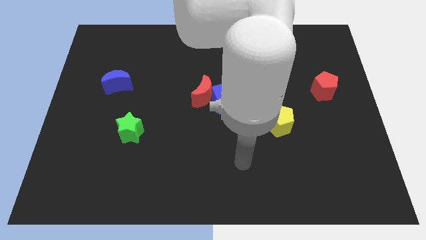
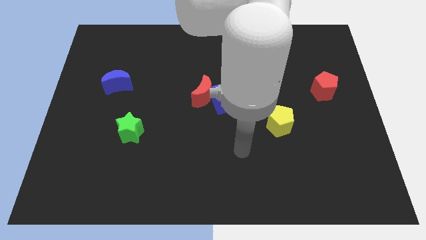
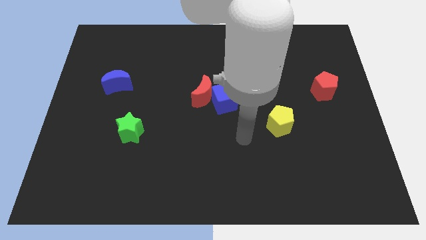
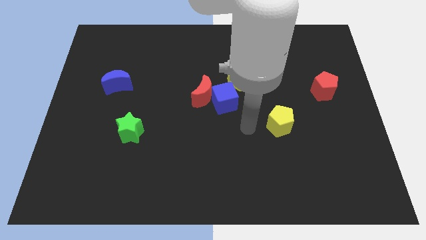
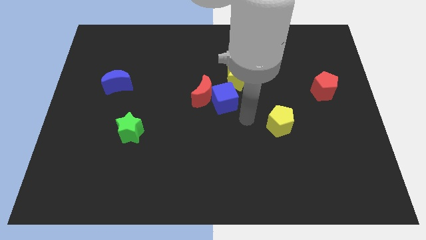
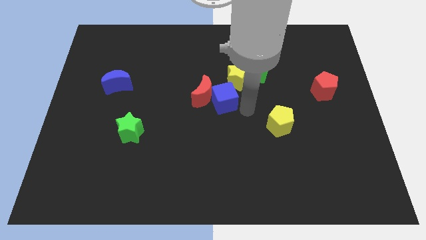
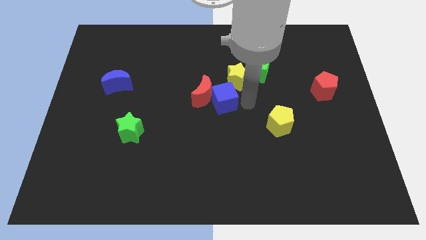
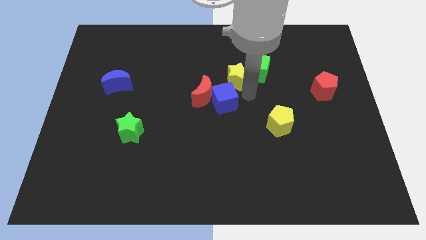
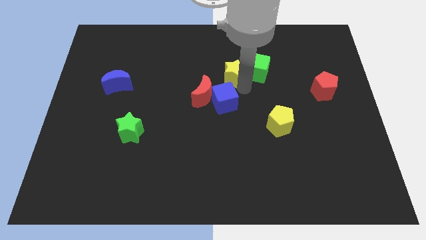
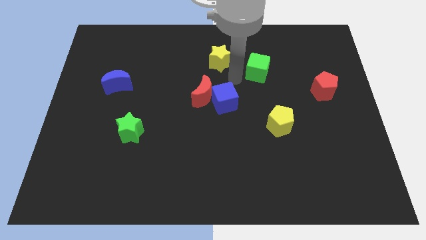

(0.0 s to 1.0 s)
pull the green cube apart from the yellow star

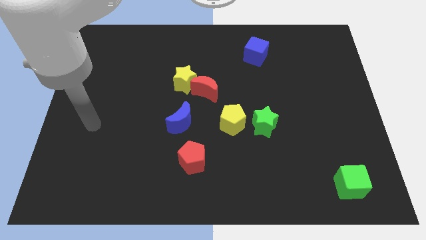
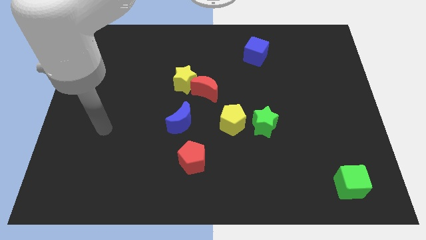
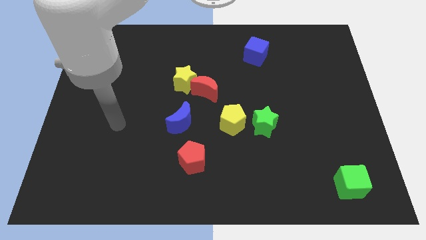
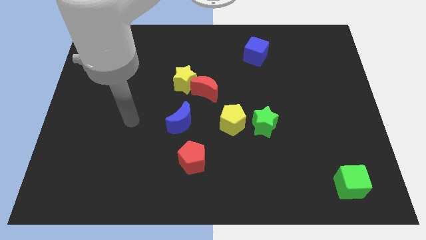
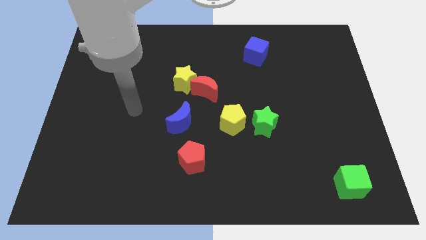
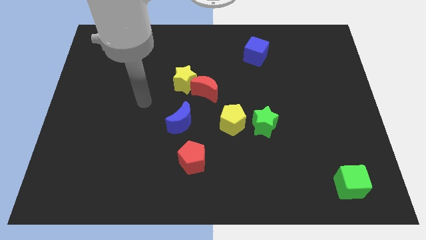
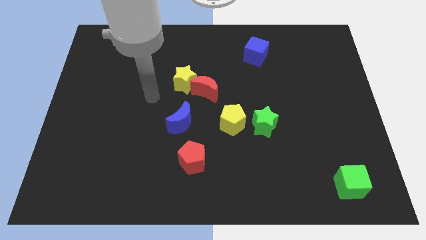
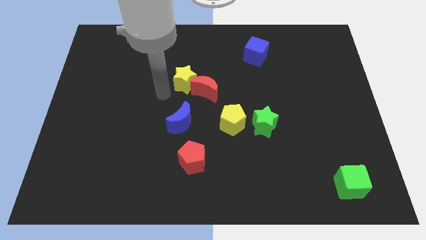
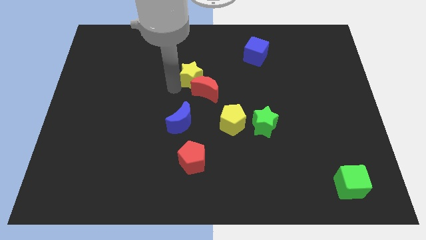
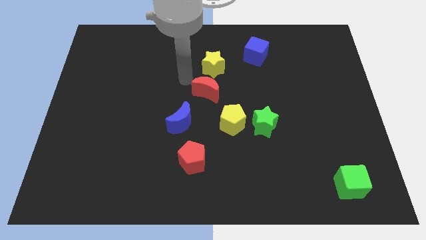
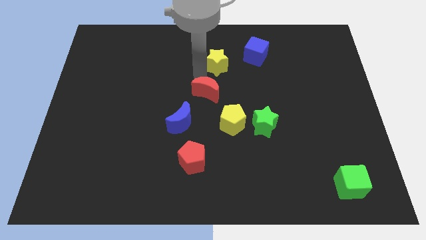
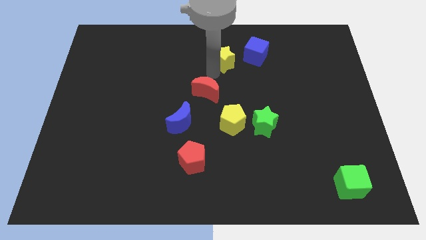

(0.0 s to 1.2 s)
pull the red moon apart from the yellow star

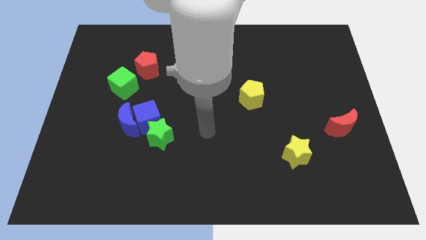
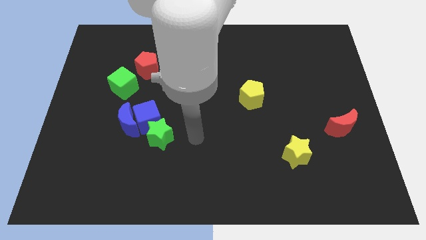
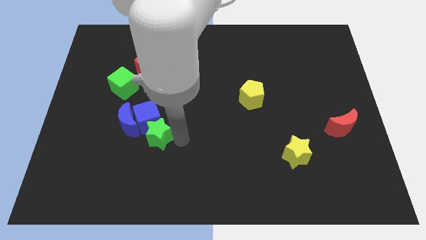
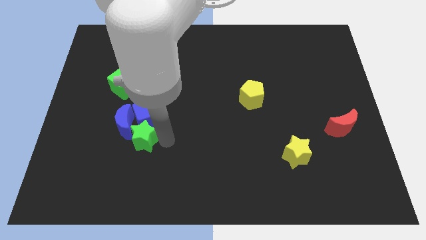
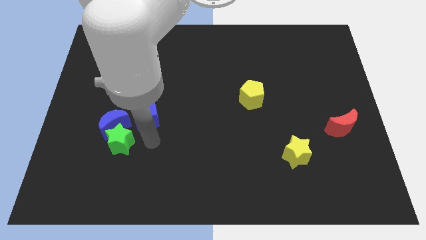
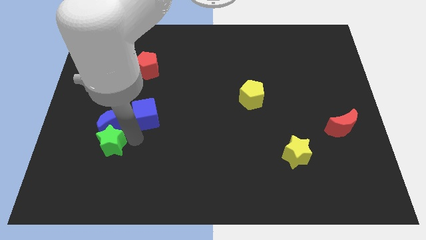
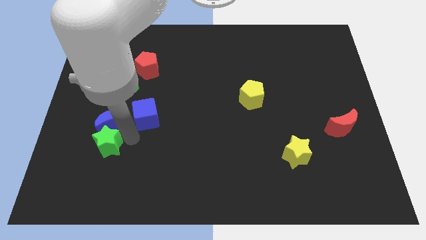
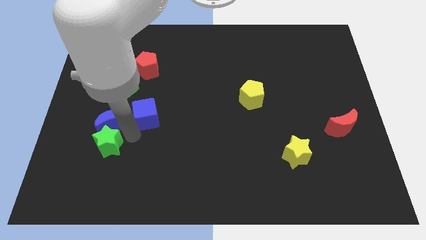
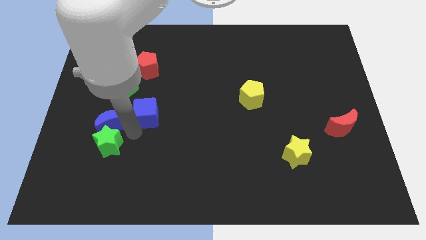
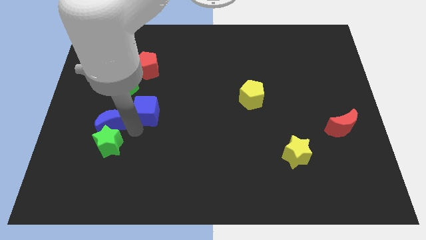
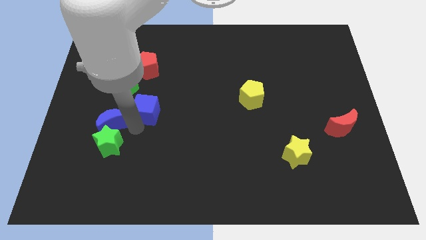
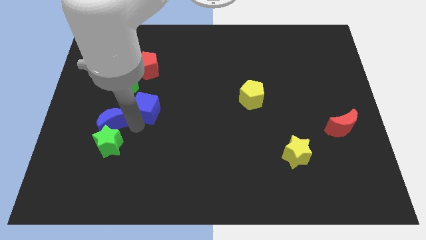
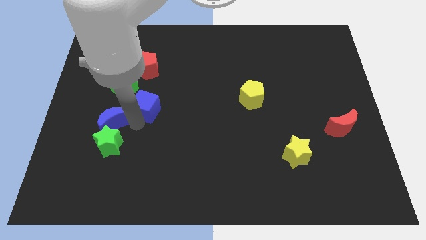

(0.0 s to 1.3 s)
separate the blue cube from the blue moon and green star

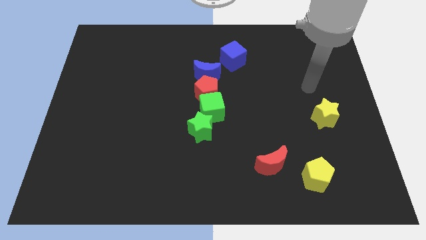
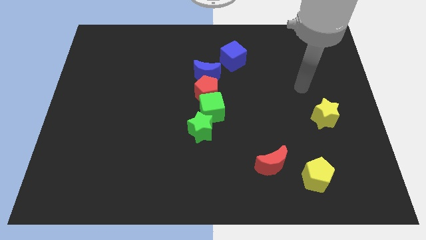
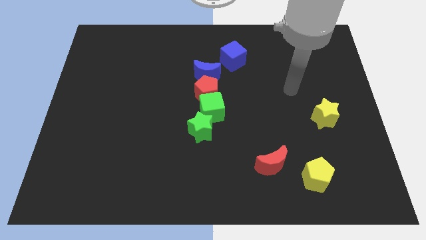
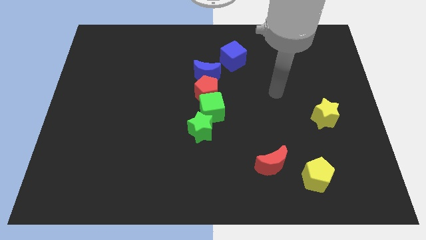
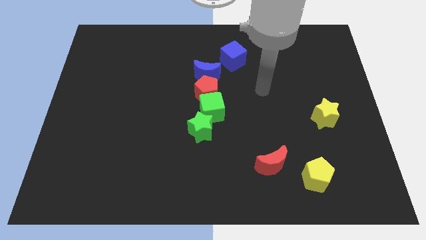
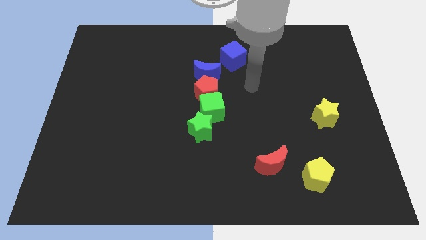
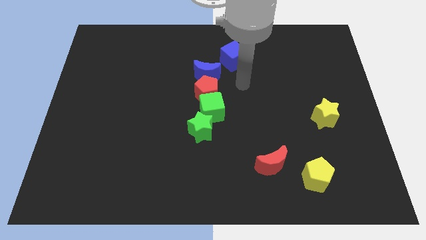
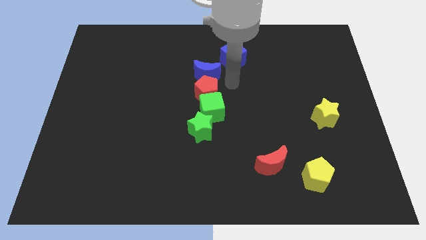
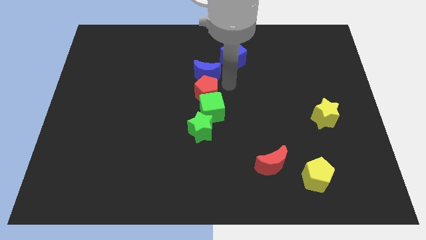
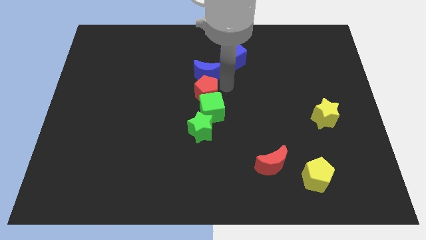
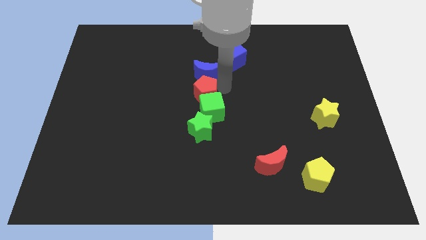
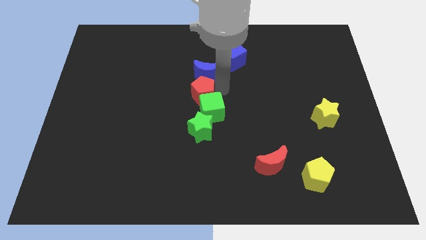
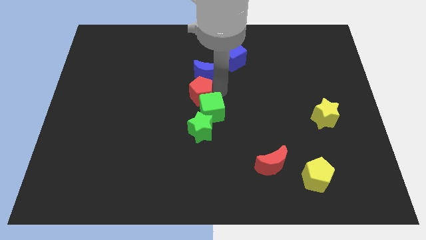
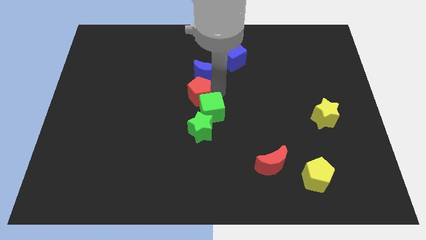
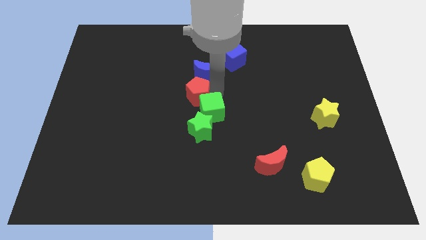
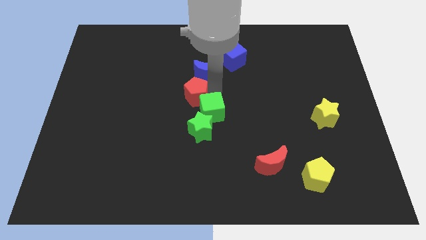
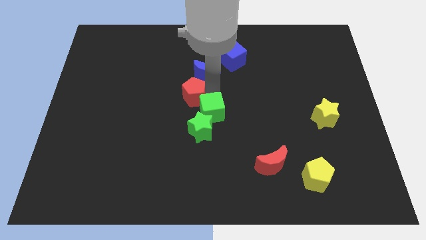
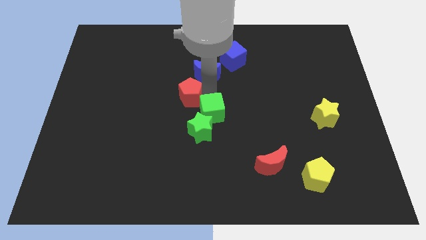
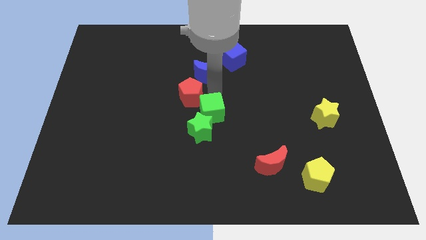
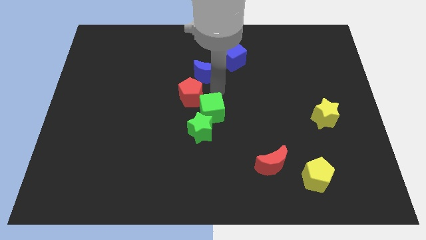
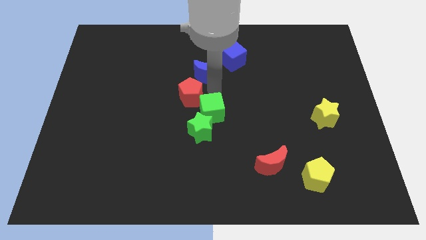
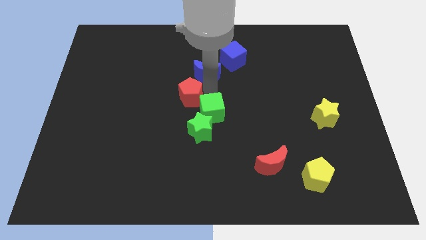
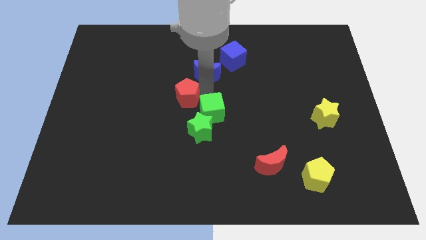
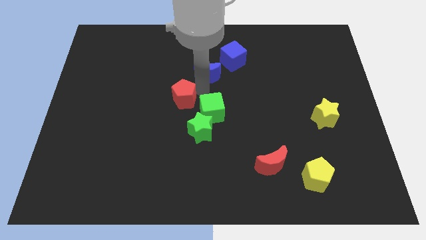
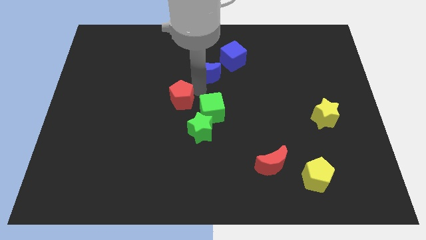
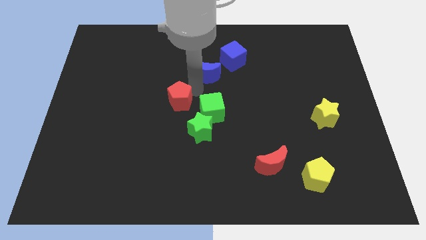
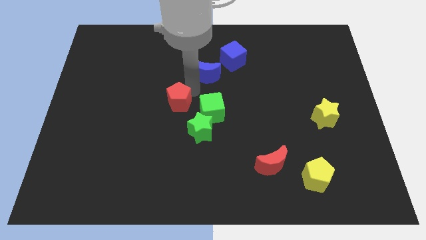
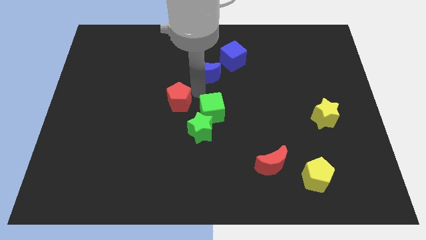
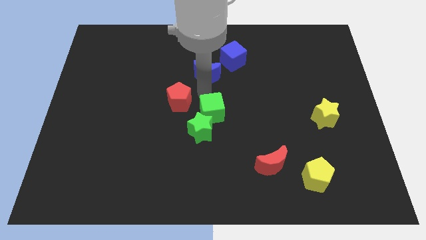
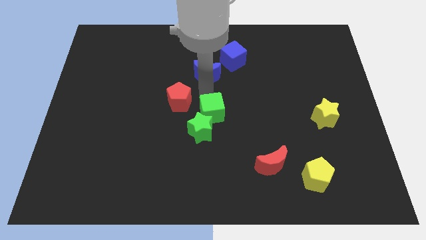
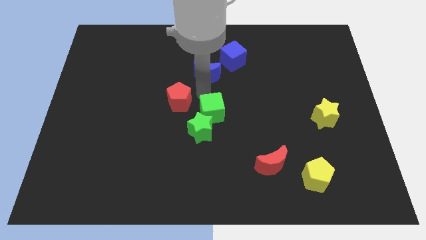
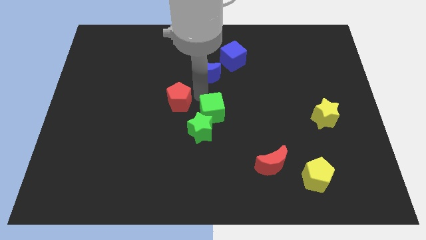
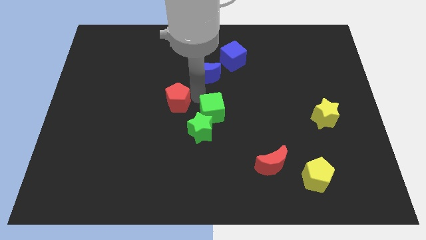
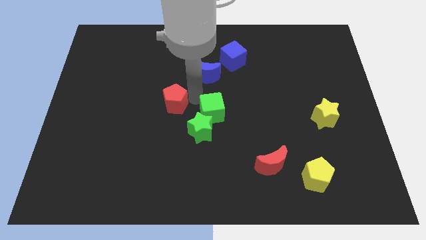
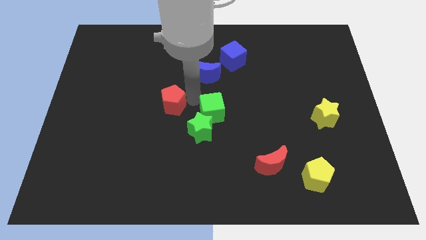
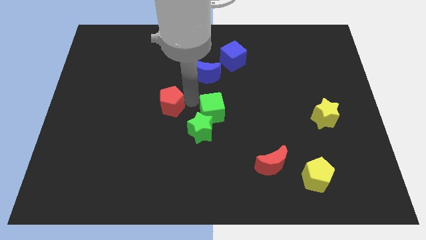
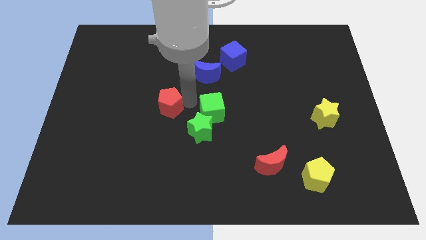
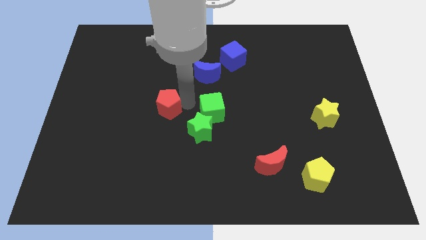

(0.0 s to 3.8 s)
separate the red pentagon from the green cube and blue moon

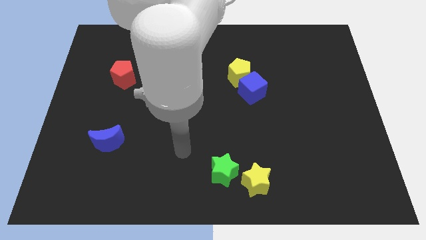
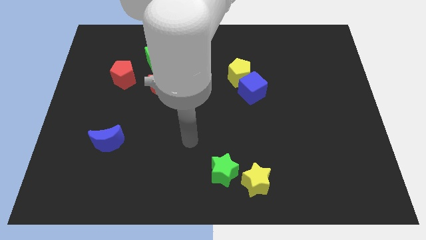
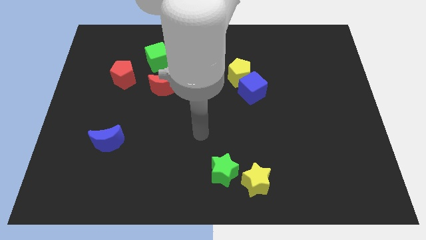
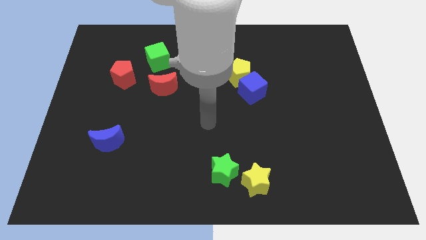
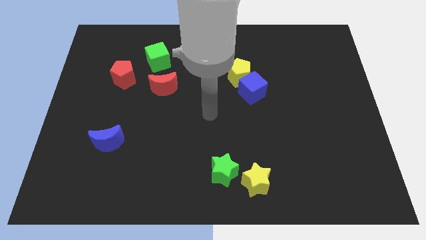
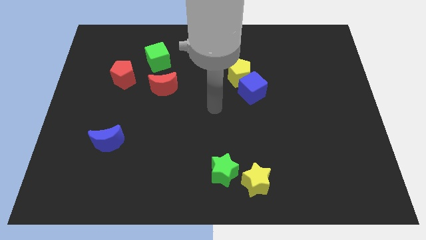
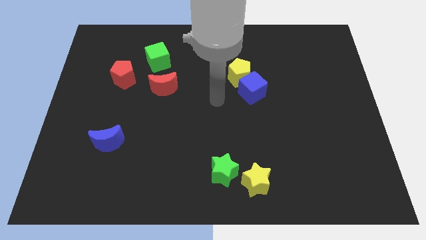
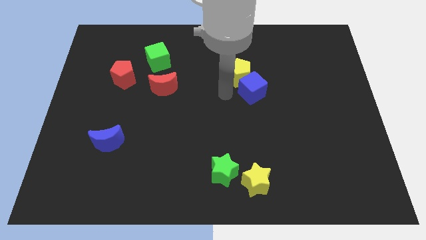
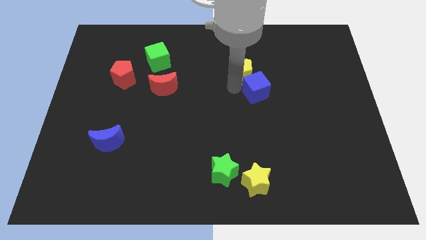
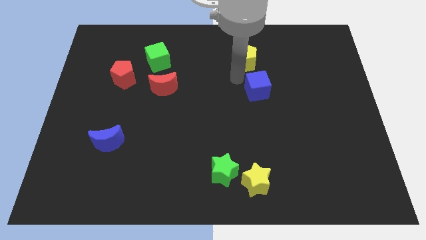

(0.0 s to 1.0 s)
move the blue cube away from the yellow pentagon

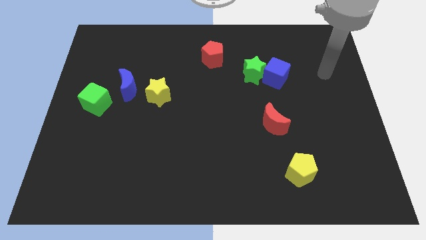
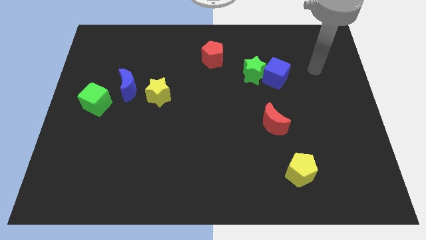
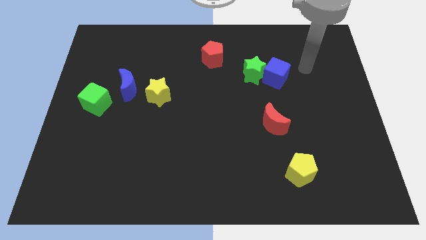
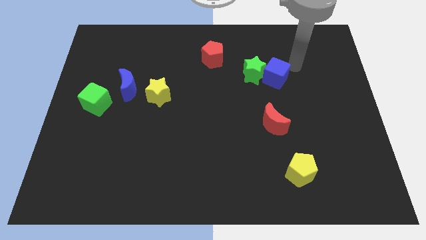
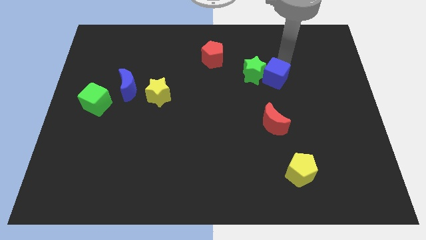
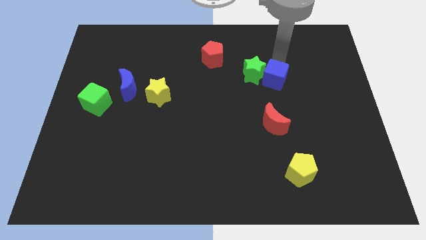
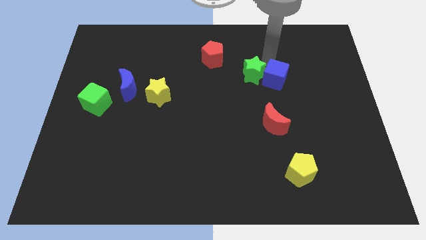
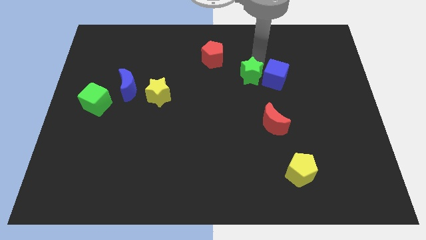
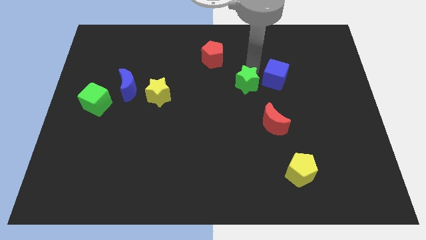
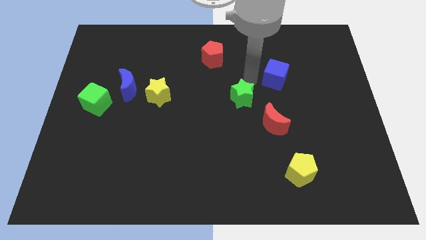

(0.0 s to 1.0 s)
pull the blue cube apart from the green star
